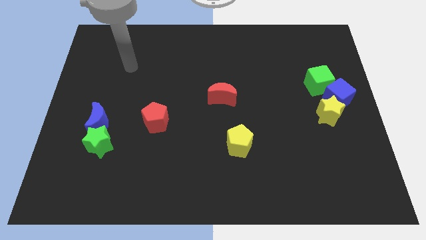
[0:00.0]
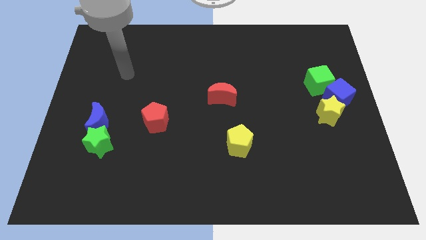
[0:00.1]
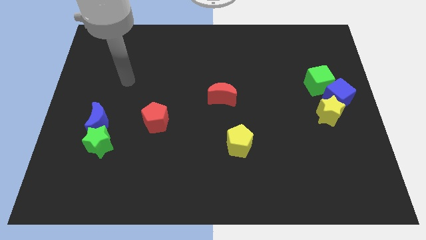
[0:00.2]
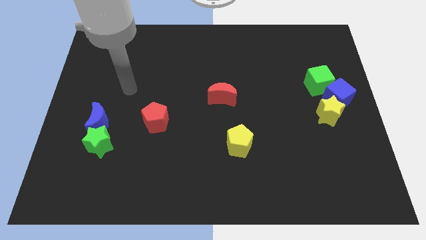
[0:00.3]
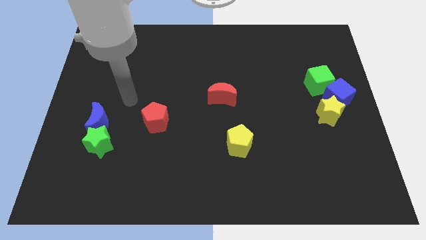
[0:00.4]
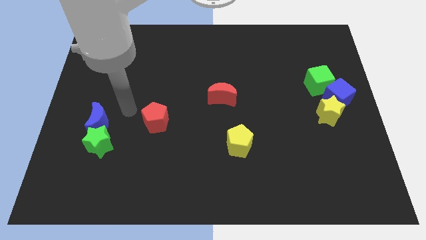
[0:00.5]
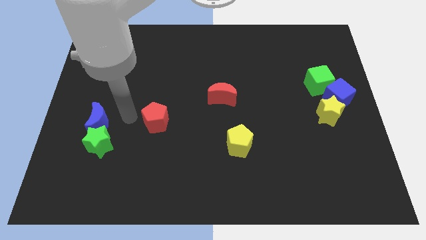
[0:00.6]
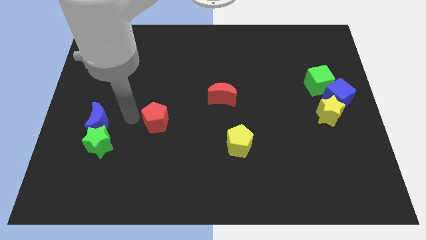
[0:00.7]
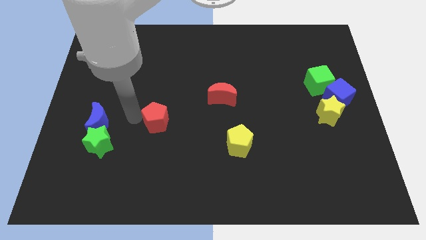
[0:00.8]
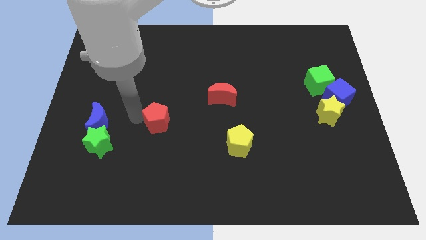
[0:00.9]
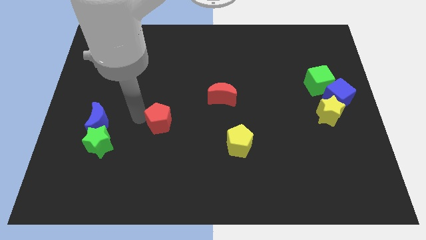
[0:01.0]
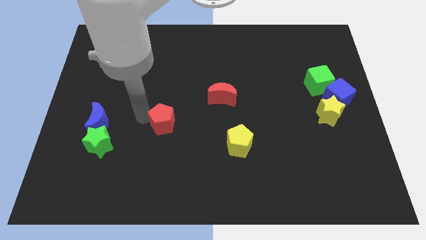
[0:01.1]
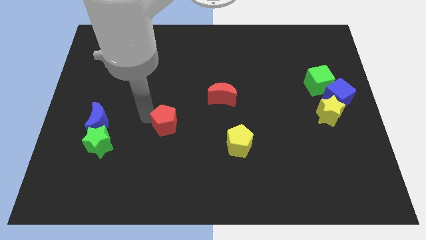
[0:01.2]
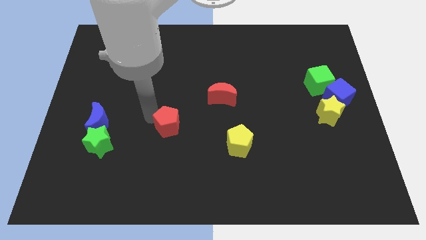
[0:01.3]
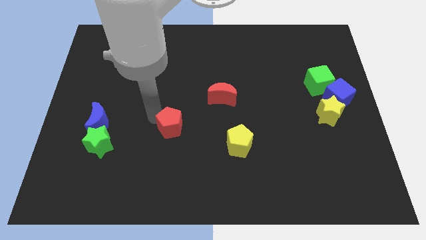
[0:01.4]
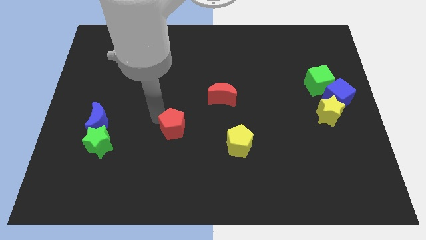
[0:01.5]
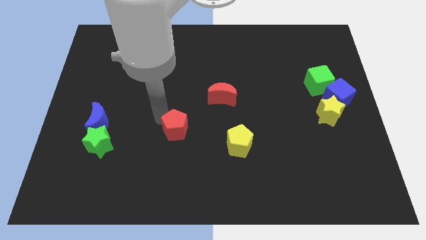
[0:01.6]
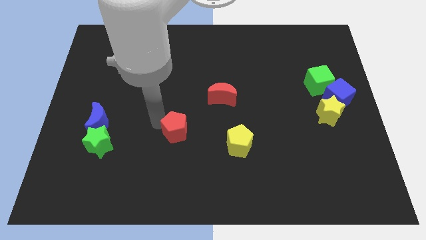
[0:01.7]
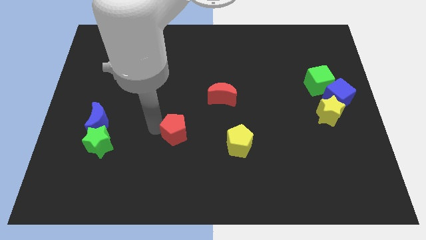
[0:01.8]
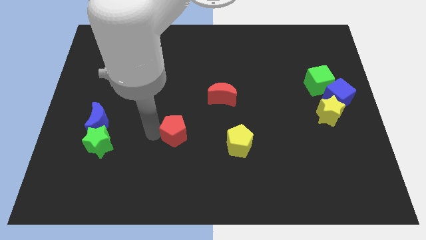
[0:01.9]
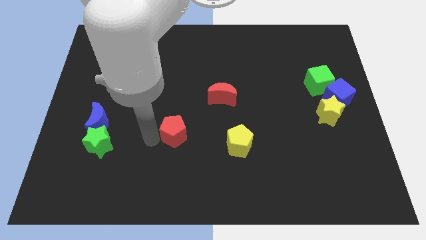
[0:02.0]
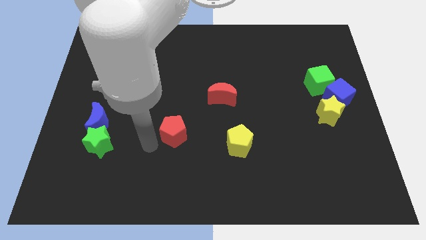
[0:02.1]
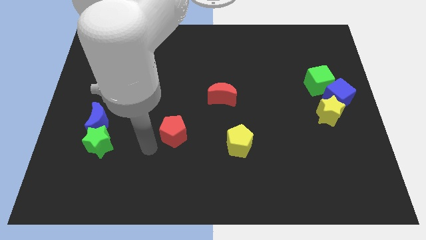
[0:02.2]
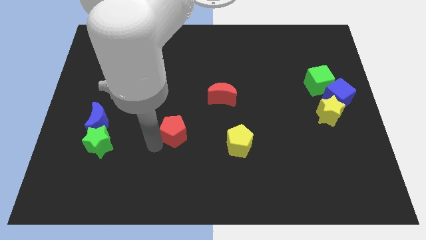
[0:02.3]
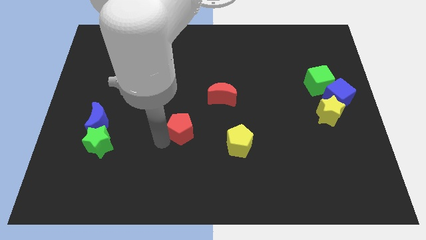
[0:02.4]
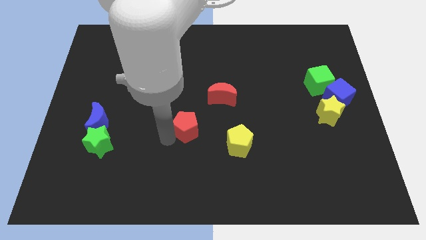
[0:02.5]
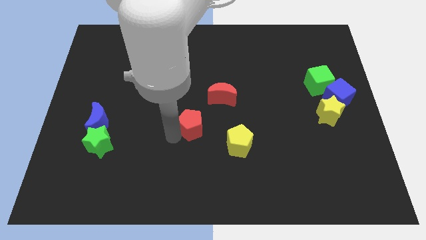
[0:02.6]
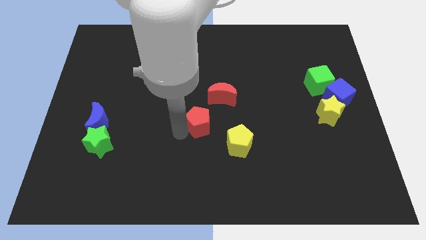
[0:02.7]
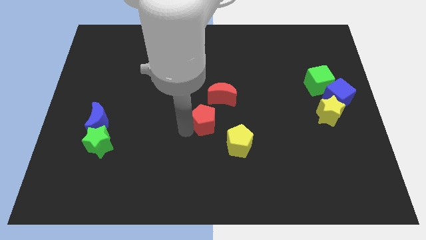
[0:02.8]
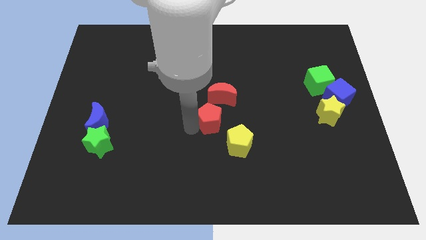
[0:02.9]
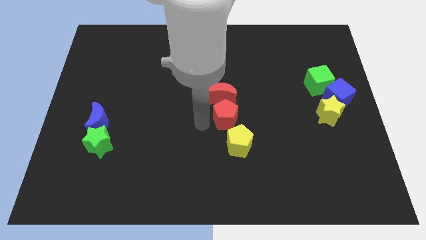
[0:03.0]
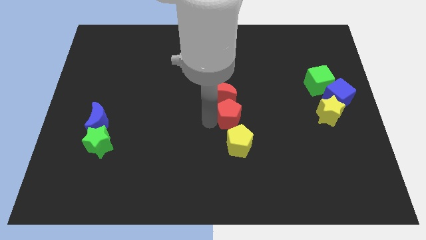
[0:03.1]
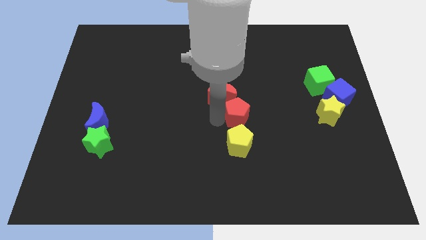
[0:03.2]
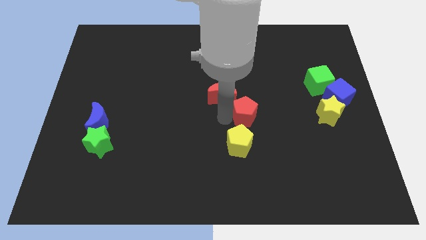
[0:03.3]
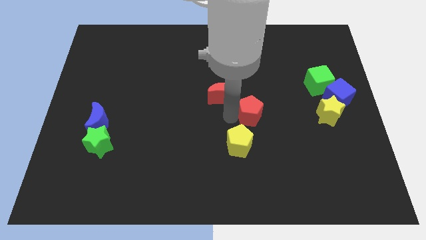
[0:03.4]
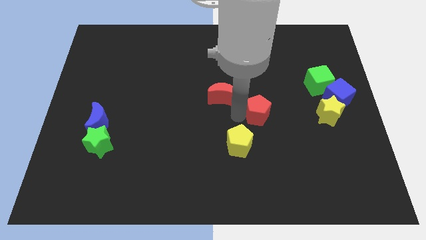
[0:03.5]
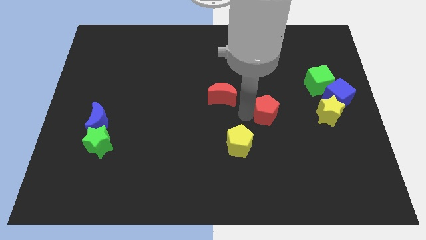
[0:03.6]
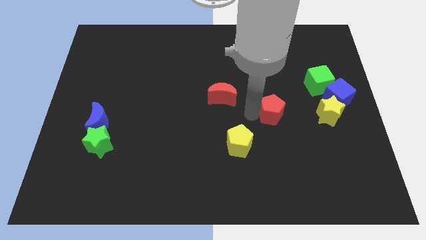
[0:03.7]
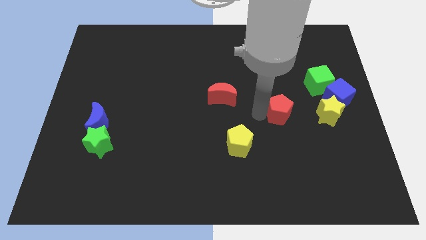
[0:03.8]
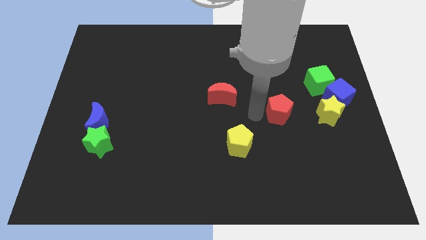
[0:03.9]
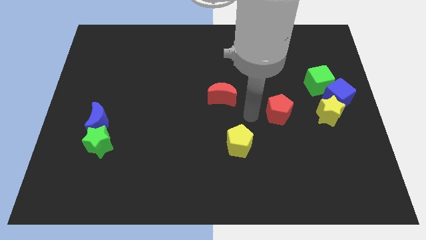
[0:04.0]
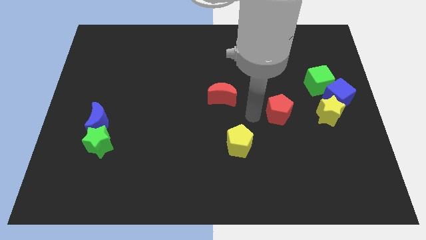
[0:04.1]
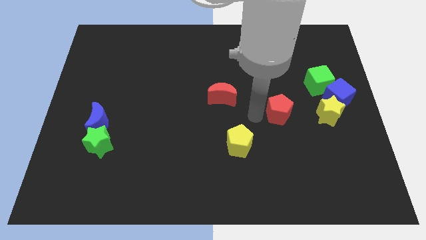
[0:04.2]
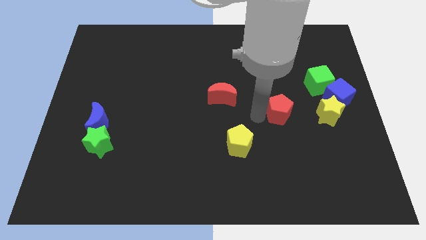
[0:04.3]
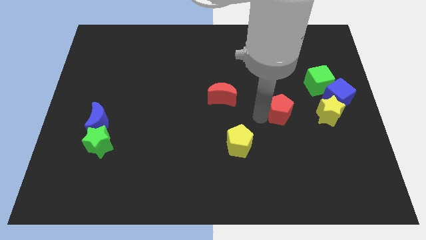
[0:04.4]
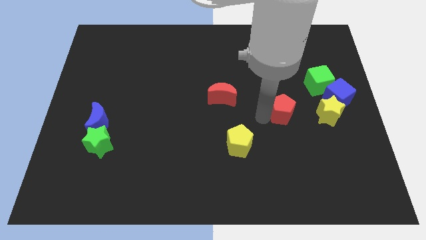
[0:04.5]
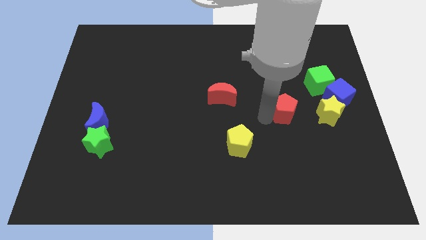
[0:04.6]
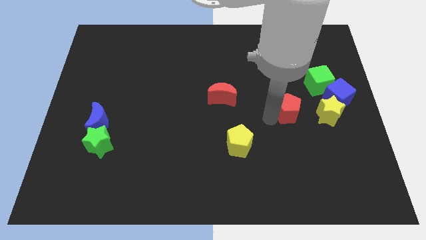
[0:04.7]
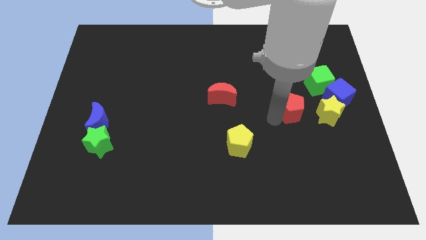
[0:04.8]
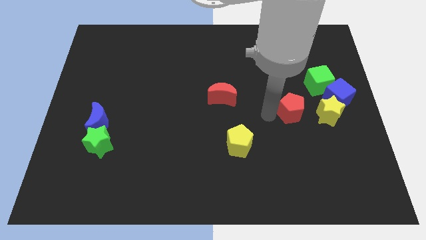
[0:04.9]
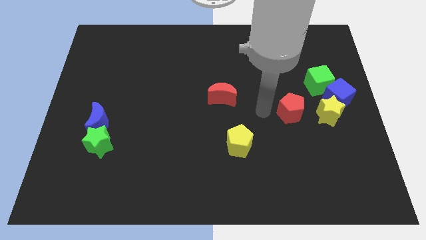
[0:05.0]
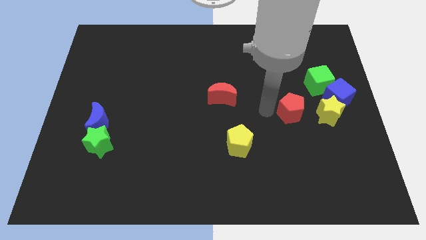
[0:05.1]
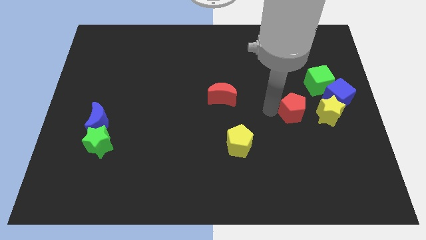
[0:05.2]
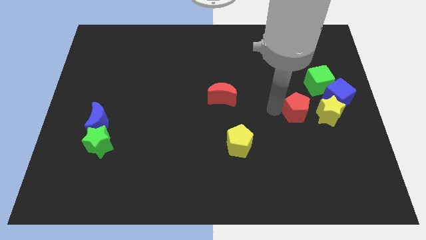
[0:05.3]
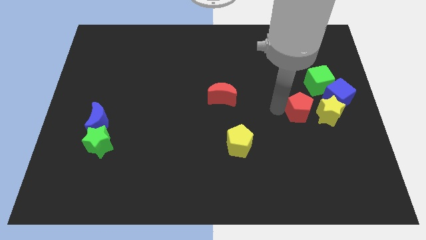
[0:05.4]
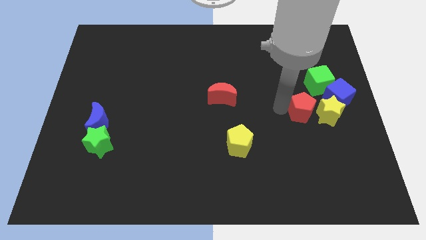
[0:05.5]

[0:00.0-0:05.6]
put the red pentagon close to the yellow star

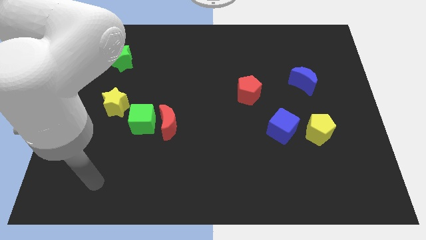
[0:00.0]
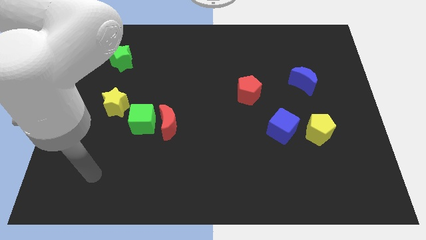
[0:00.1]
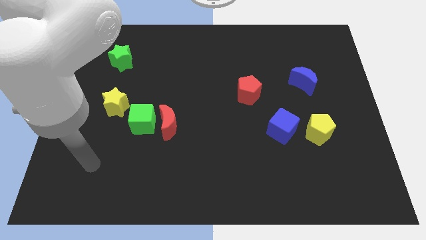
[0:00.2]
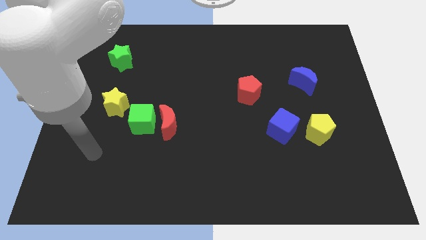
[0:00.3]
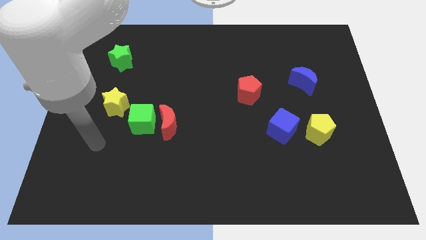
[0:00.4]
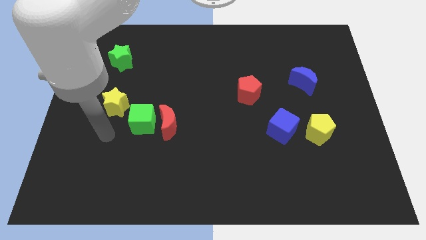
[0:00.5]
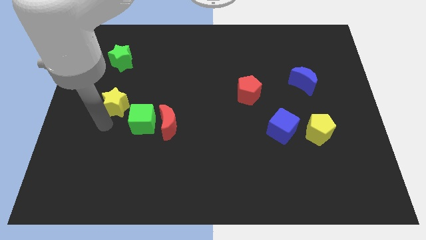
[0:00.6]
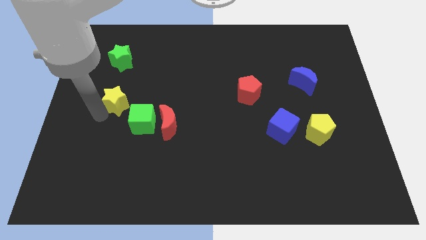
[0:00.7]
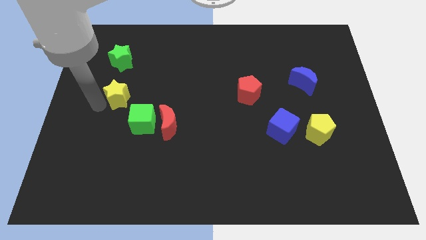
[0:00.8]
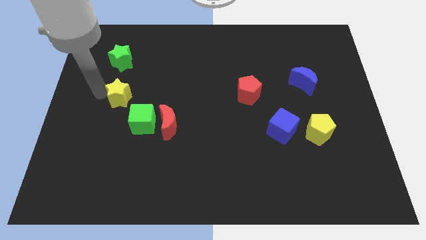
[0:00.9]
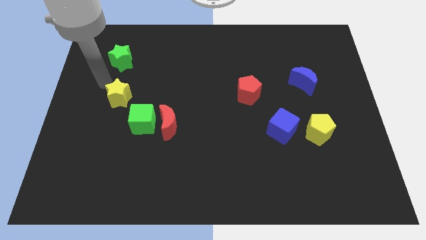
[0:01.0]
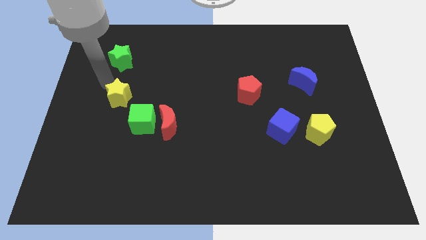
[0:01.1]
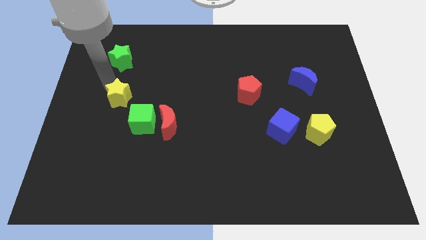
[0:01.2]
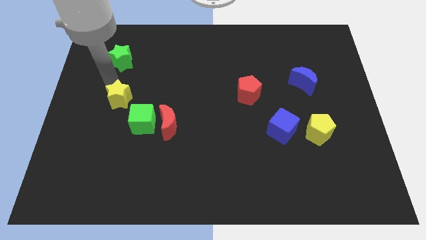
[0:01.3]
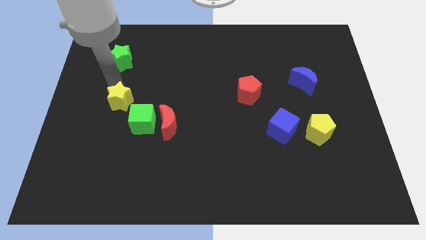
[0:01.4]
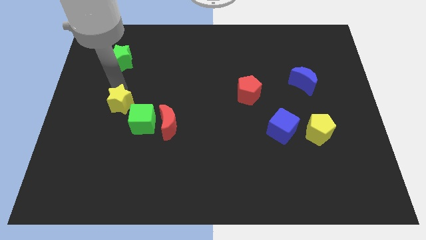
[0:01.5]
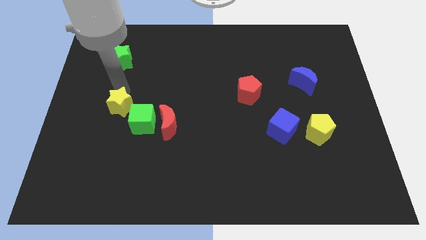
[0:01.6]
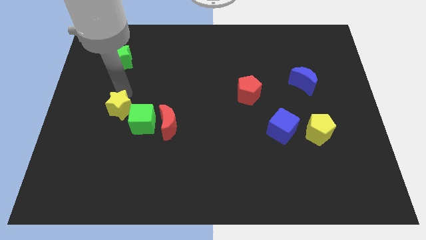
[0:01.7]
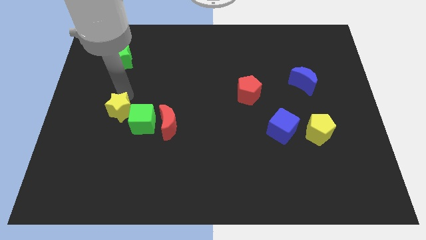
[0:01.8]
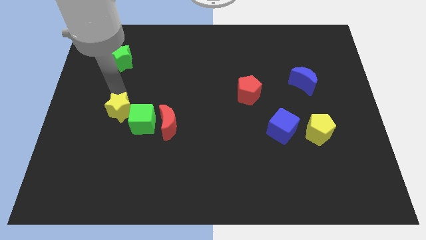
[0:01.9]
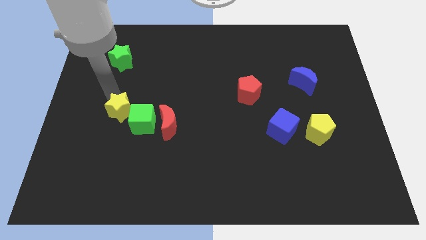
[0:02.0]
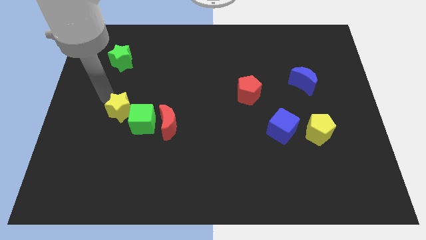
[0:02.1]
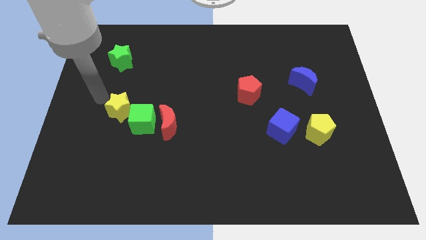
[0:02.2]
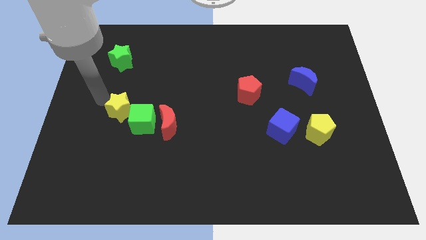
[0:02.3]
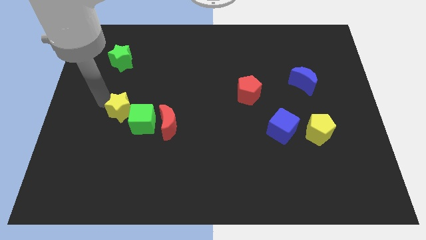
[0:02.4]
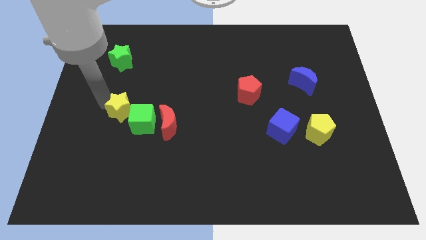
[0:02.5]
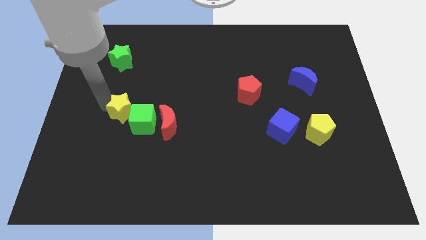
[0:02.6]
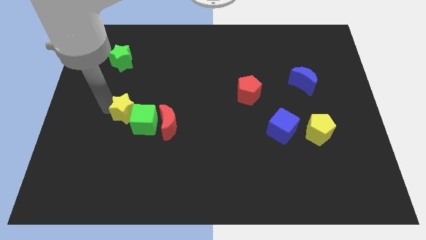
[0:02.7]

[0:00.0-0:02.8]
slide the yellow star towards the green cube
